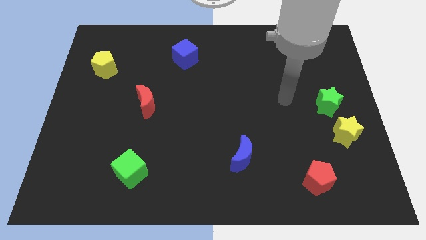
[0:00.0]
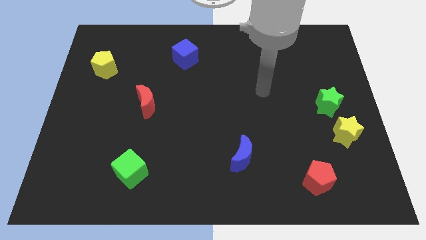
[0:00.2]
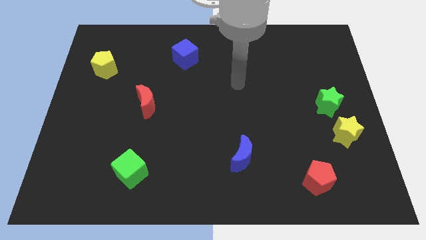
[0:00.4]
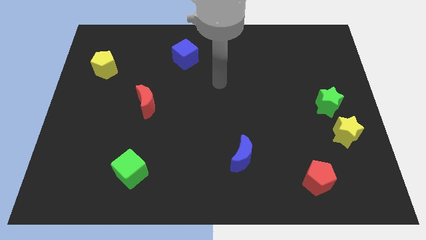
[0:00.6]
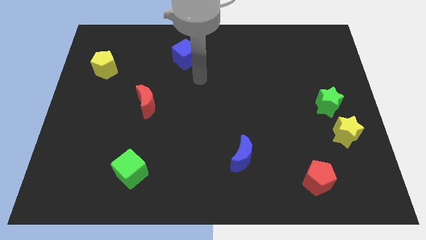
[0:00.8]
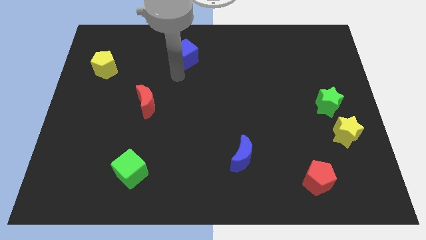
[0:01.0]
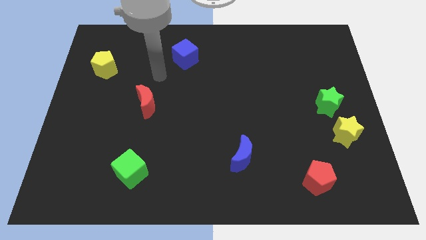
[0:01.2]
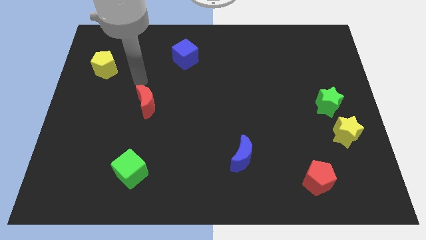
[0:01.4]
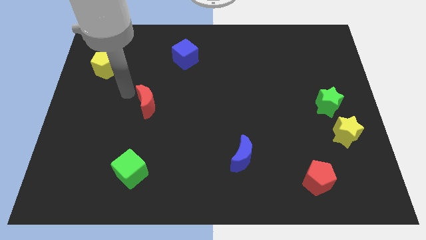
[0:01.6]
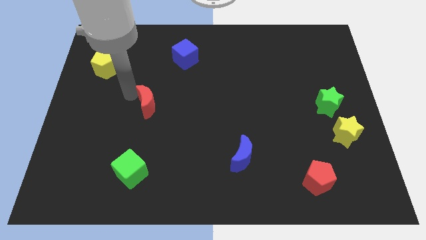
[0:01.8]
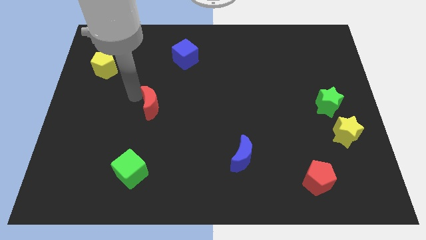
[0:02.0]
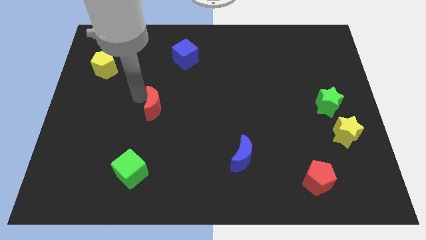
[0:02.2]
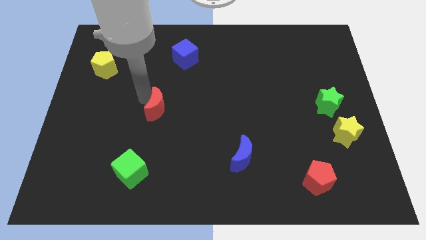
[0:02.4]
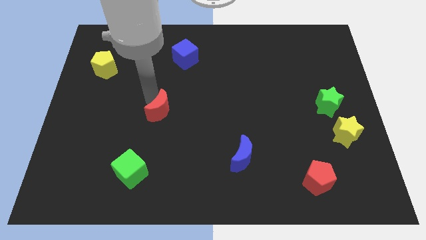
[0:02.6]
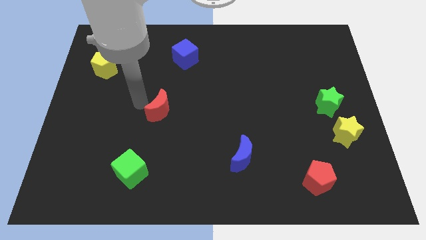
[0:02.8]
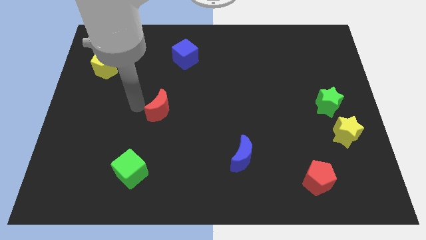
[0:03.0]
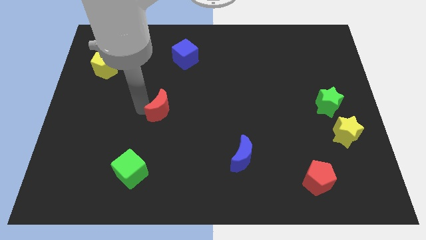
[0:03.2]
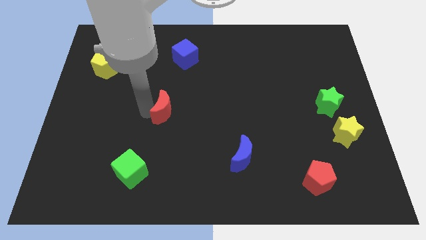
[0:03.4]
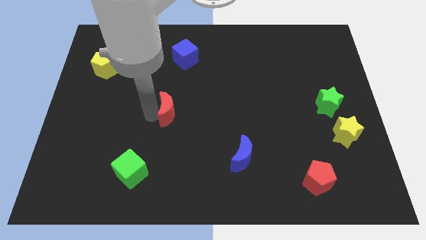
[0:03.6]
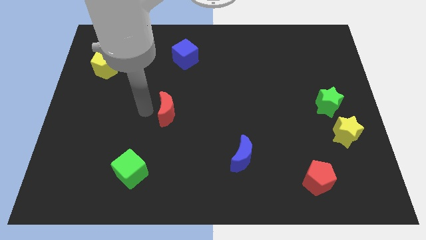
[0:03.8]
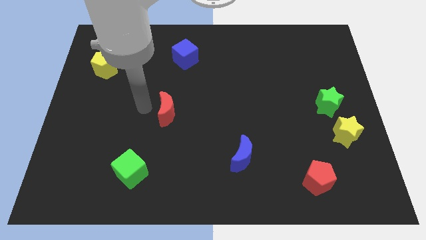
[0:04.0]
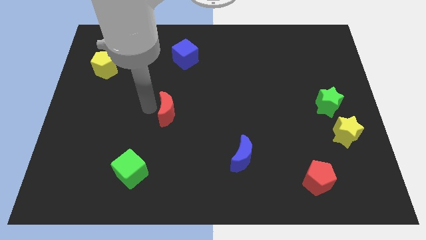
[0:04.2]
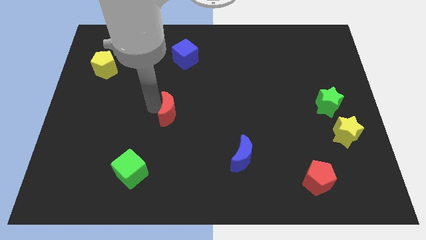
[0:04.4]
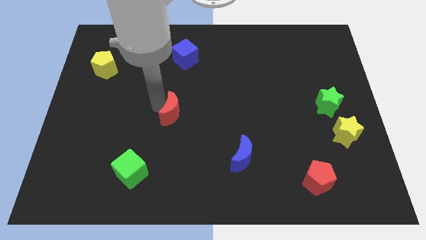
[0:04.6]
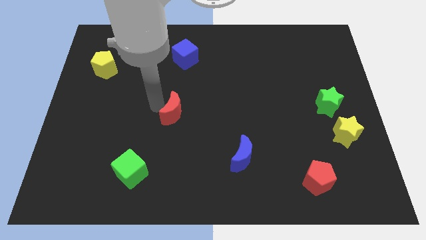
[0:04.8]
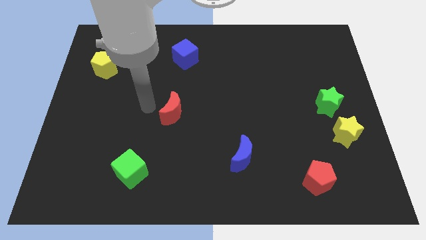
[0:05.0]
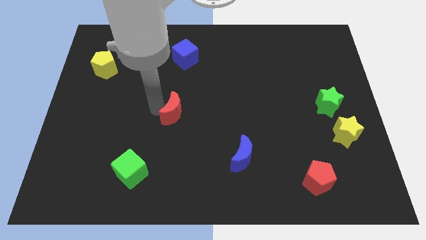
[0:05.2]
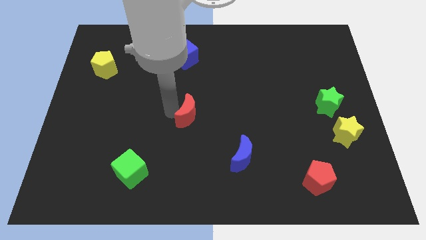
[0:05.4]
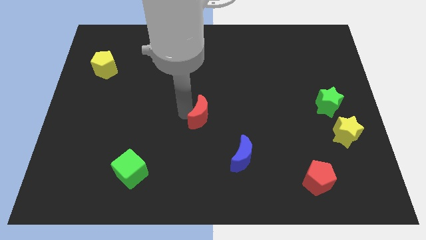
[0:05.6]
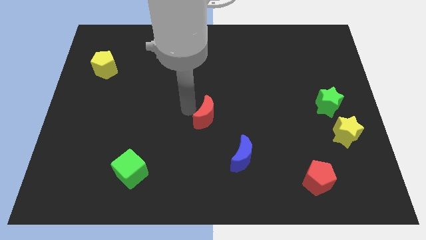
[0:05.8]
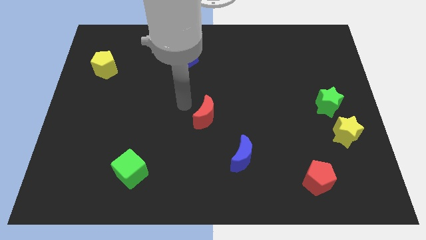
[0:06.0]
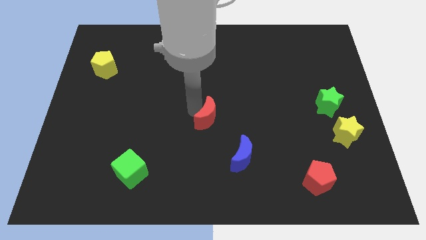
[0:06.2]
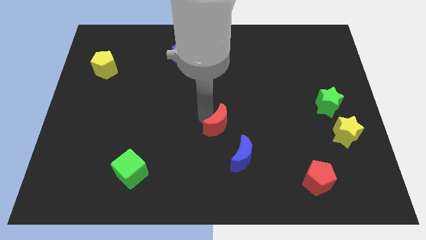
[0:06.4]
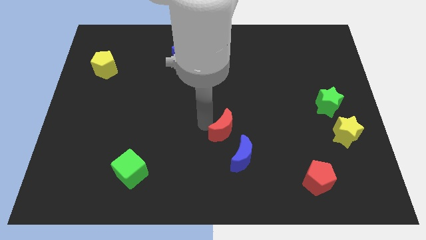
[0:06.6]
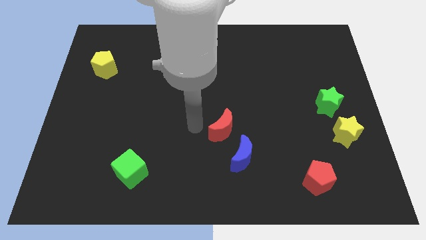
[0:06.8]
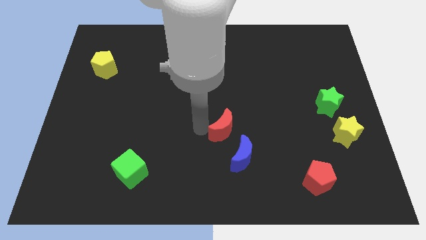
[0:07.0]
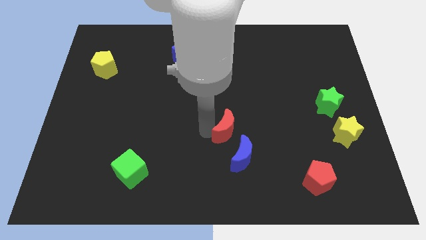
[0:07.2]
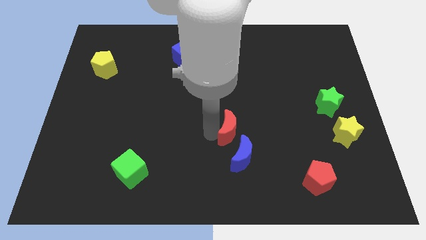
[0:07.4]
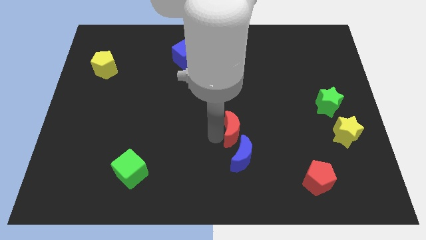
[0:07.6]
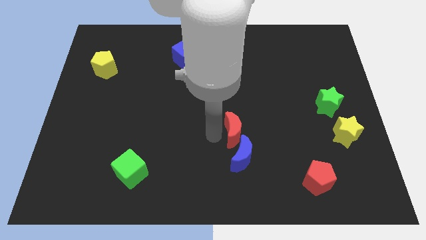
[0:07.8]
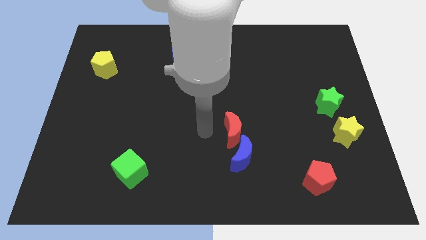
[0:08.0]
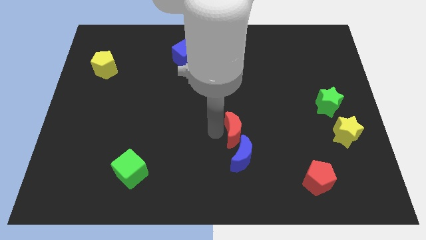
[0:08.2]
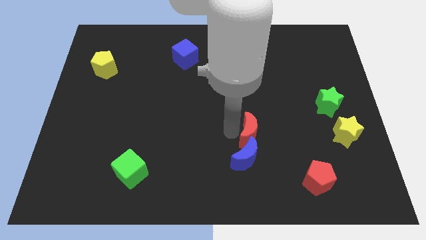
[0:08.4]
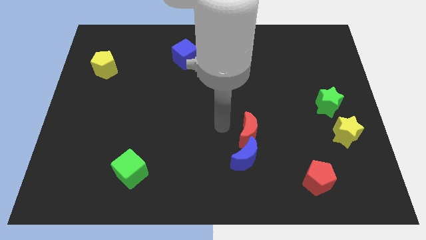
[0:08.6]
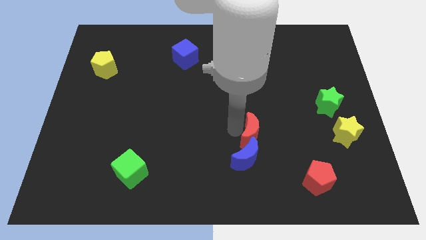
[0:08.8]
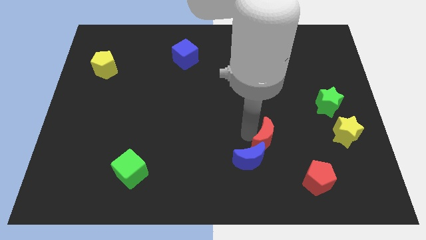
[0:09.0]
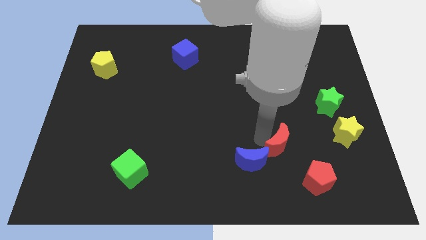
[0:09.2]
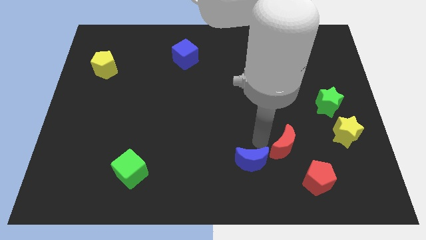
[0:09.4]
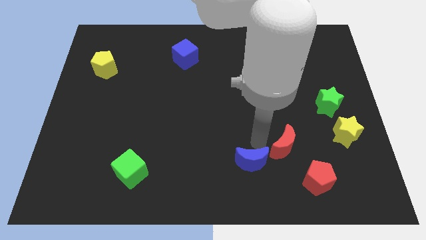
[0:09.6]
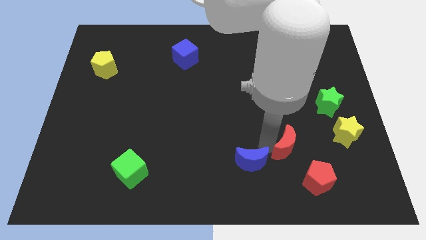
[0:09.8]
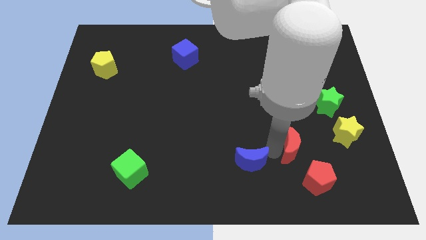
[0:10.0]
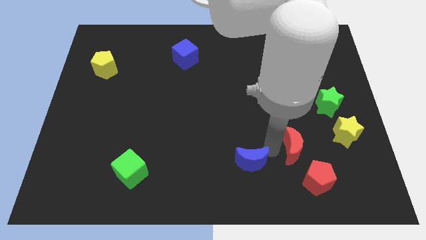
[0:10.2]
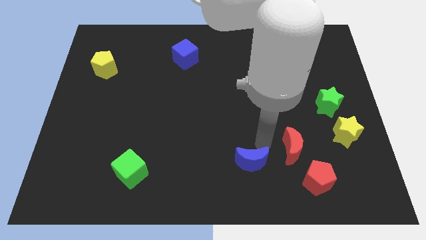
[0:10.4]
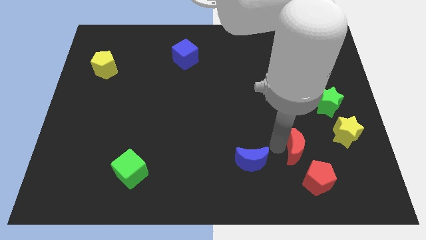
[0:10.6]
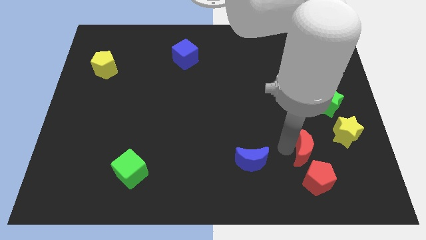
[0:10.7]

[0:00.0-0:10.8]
move the red moon to the bottom left of the yellow star

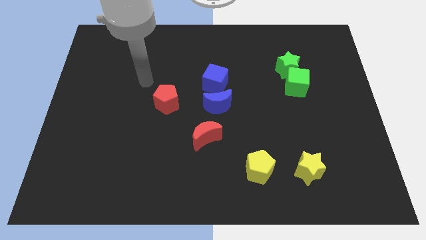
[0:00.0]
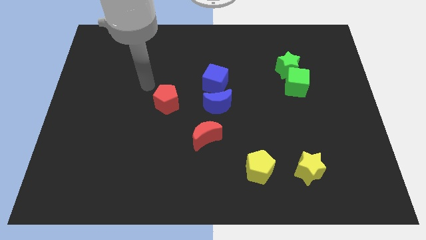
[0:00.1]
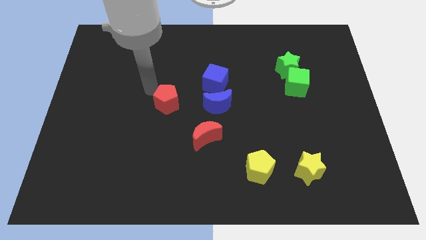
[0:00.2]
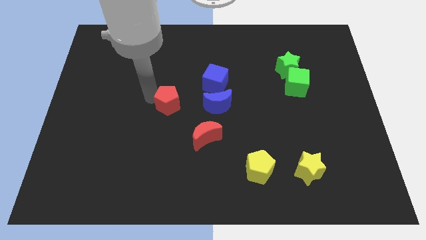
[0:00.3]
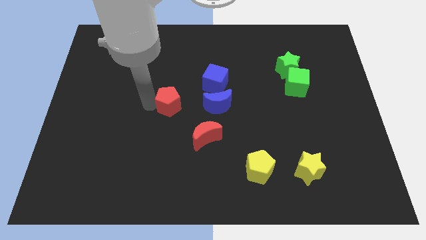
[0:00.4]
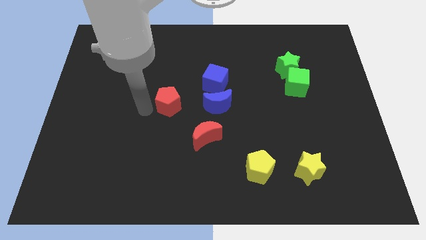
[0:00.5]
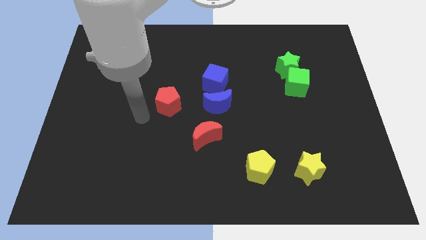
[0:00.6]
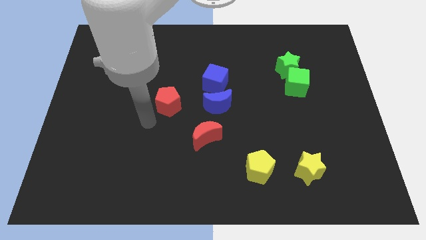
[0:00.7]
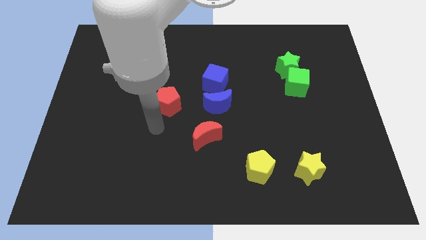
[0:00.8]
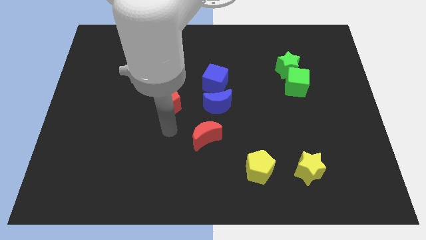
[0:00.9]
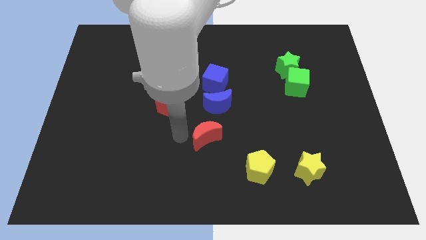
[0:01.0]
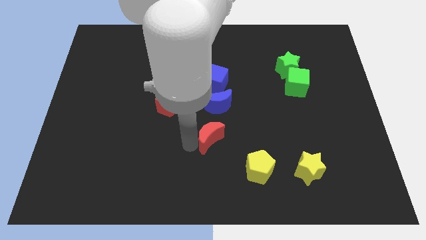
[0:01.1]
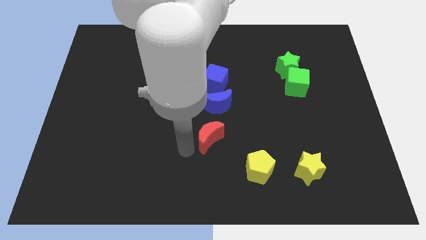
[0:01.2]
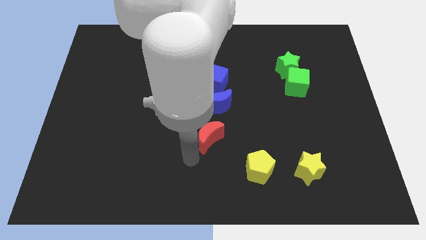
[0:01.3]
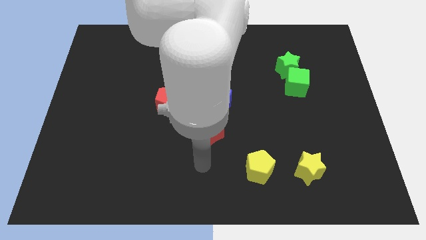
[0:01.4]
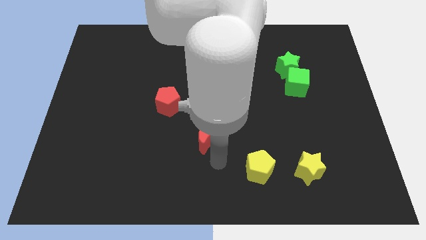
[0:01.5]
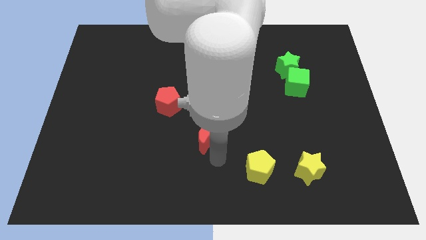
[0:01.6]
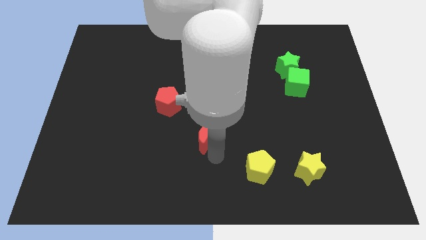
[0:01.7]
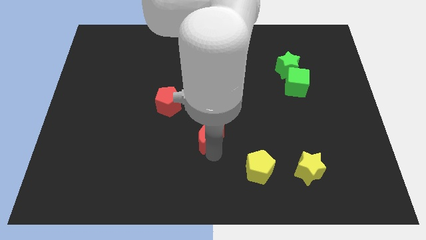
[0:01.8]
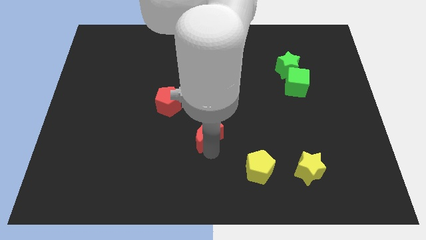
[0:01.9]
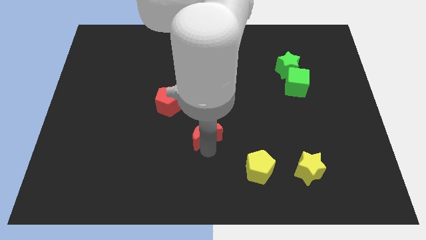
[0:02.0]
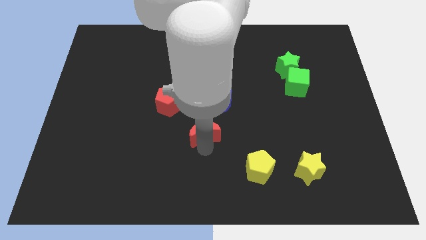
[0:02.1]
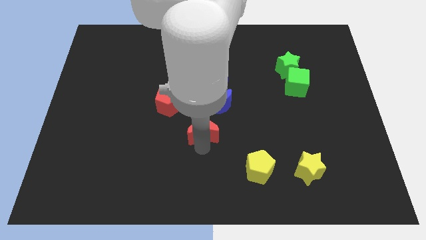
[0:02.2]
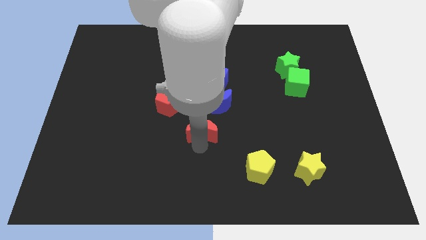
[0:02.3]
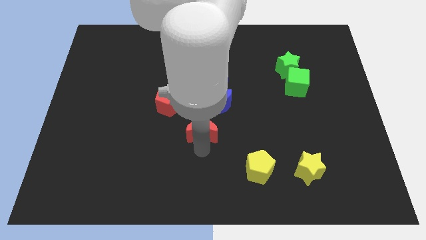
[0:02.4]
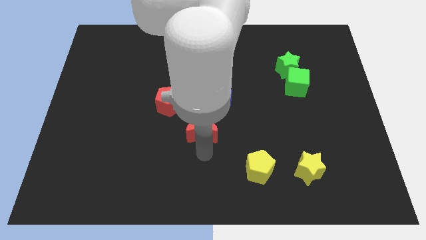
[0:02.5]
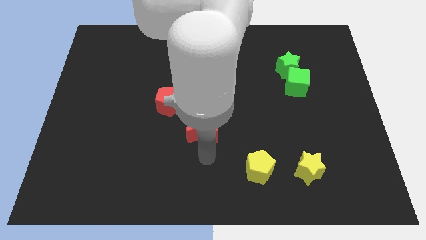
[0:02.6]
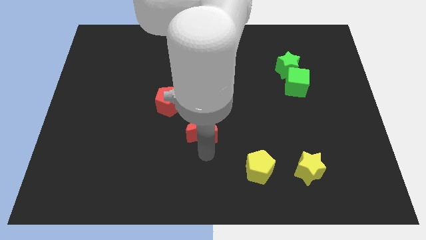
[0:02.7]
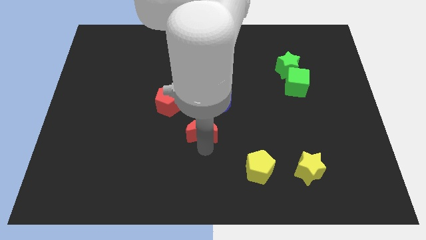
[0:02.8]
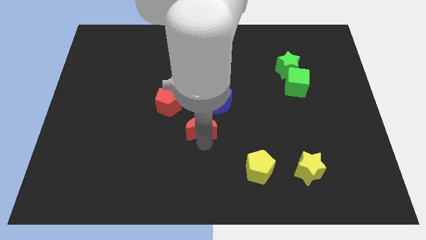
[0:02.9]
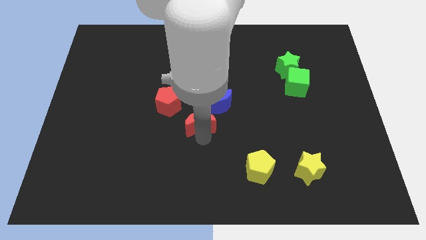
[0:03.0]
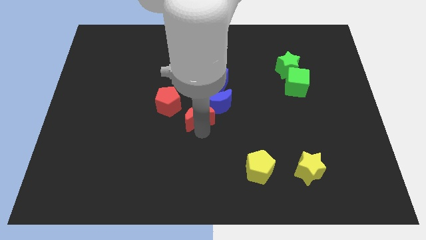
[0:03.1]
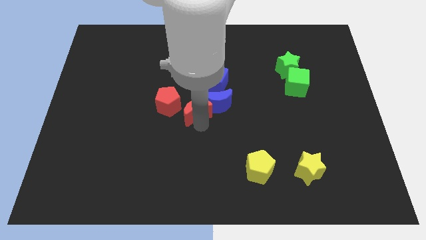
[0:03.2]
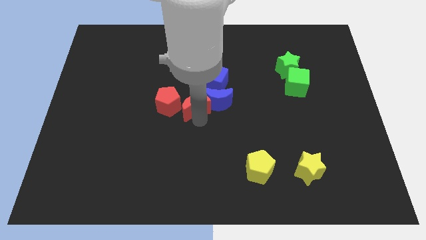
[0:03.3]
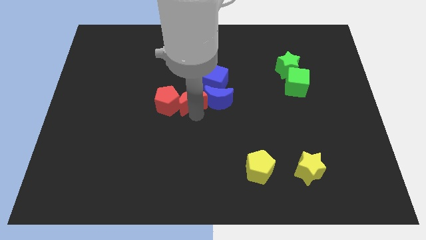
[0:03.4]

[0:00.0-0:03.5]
put the red moon to the top left side of the blue moon
